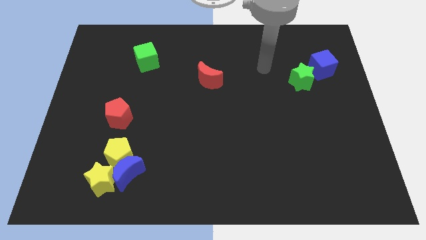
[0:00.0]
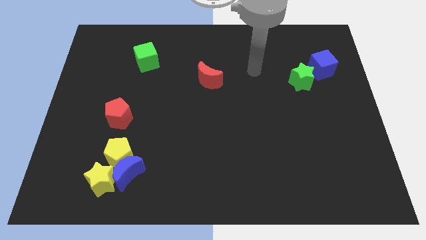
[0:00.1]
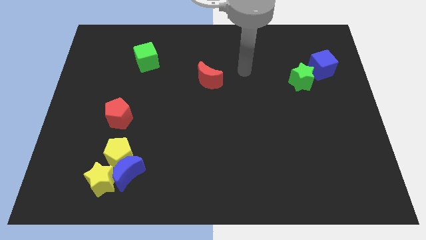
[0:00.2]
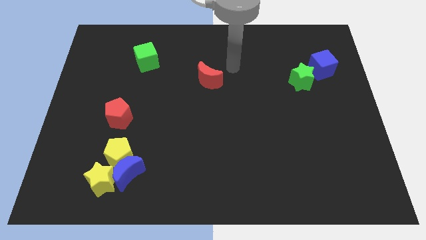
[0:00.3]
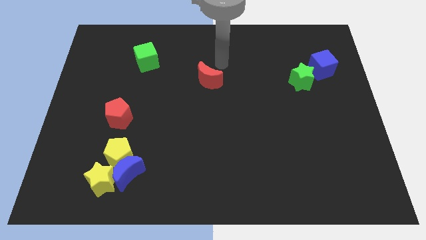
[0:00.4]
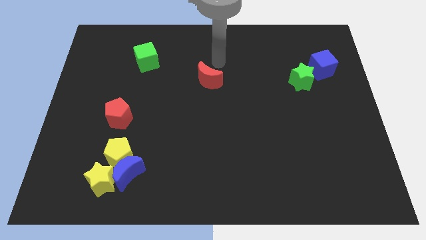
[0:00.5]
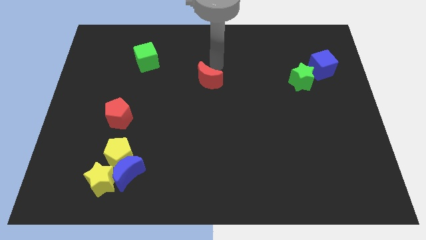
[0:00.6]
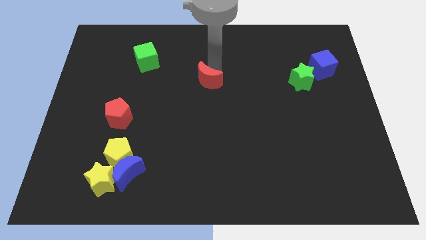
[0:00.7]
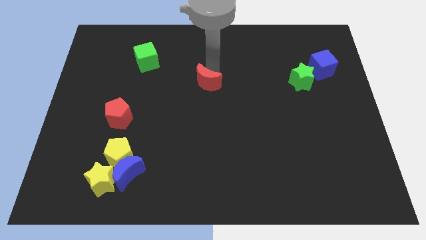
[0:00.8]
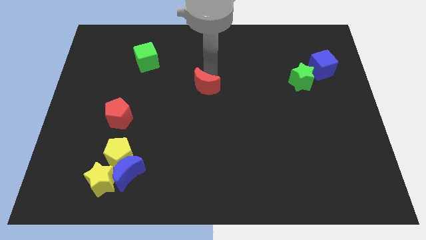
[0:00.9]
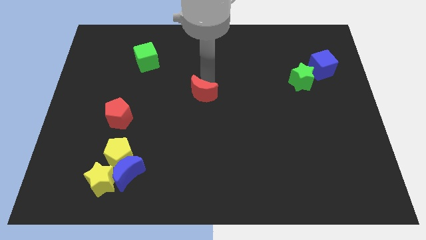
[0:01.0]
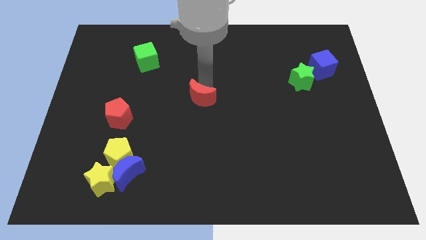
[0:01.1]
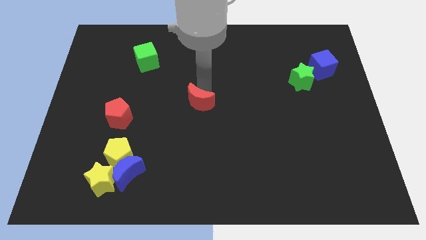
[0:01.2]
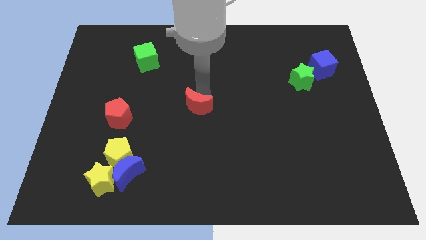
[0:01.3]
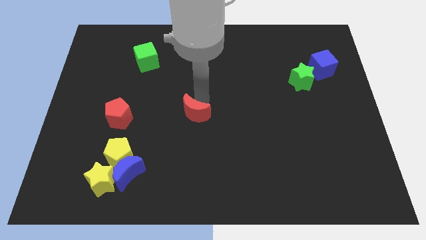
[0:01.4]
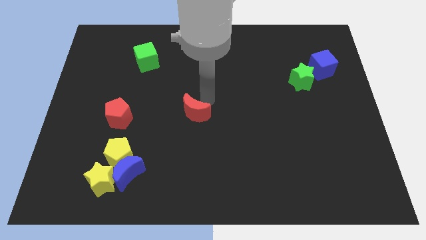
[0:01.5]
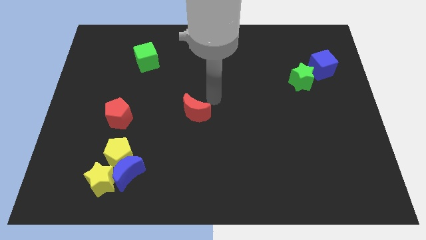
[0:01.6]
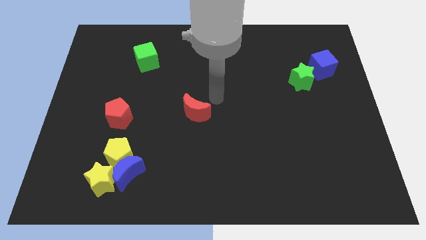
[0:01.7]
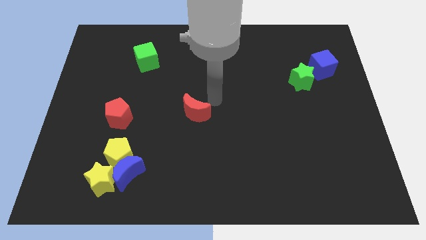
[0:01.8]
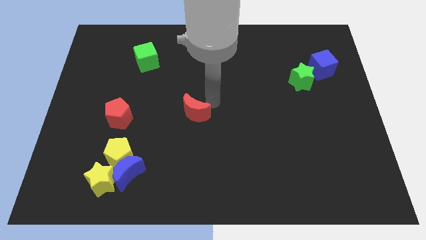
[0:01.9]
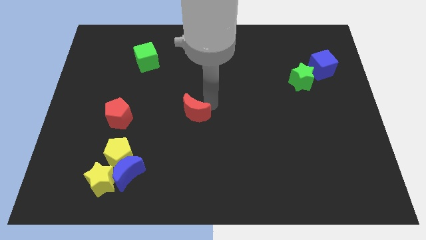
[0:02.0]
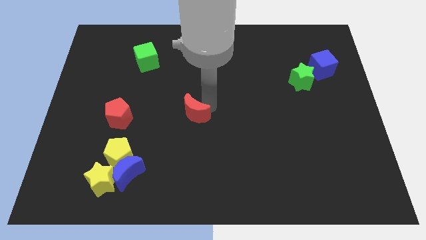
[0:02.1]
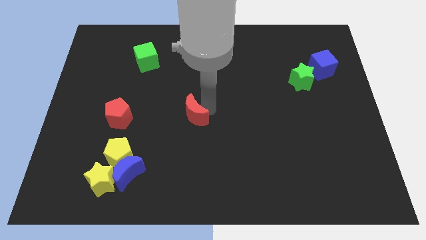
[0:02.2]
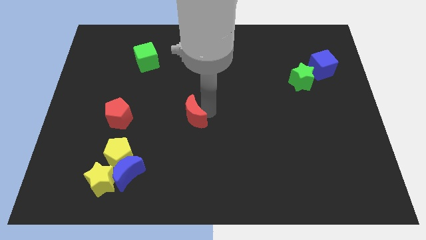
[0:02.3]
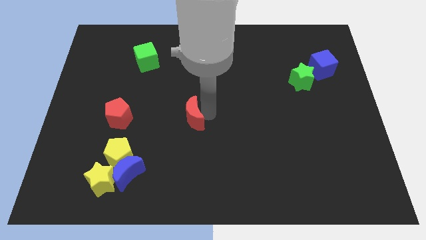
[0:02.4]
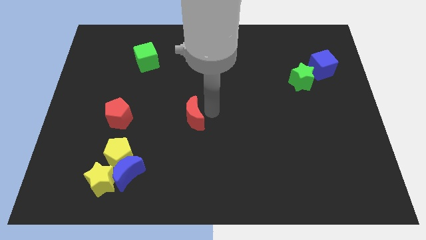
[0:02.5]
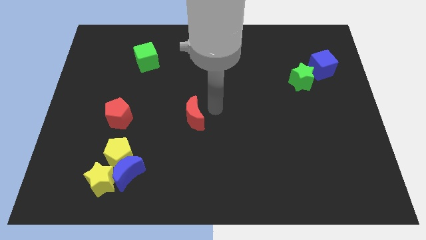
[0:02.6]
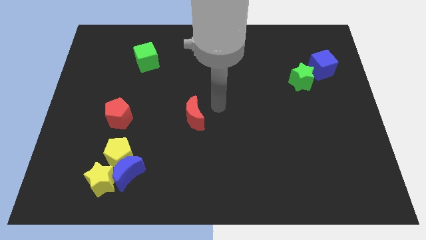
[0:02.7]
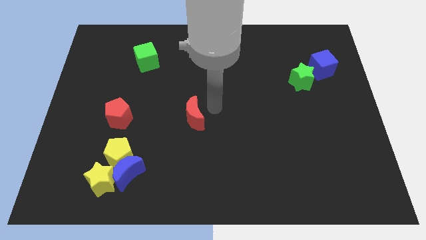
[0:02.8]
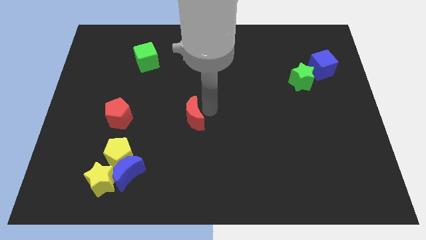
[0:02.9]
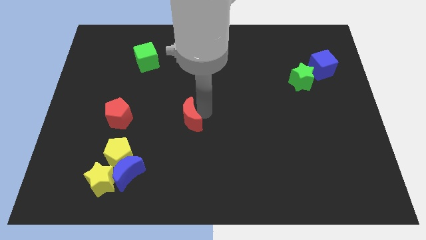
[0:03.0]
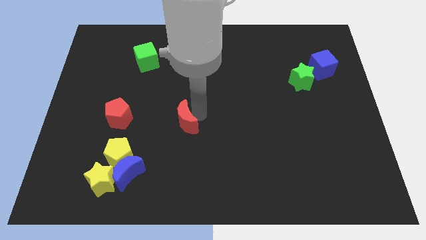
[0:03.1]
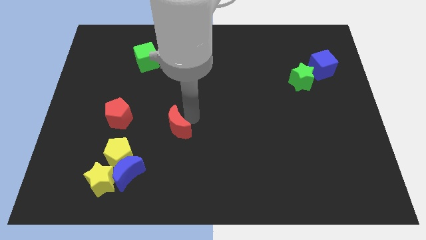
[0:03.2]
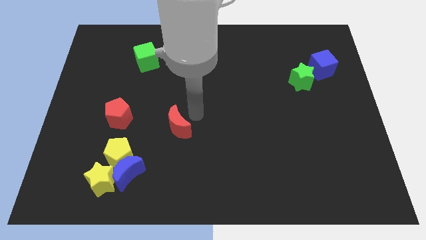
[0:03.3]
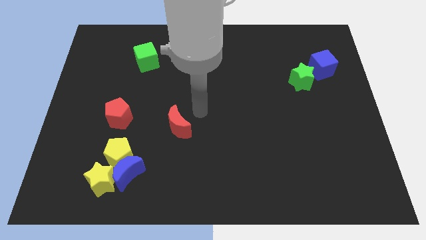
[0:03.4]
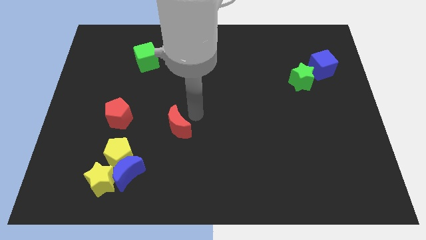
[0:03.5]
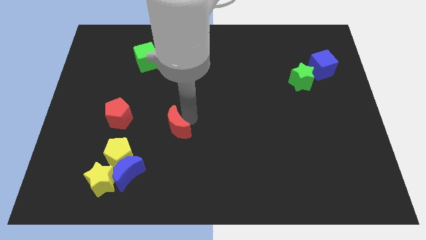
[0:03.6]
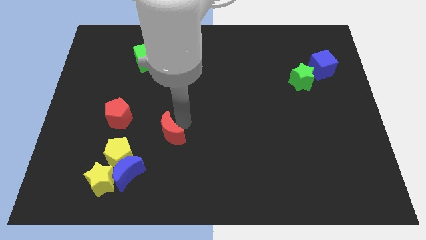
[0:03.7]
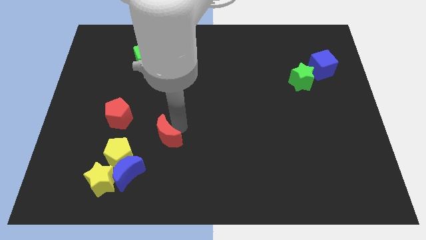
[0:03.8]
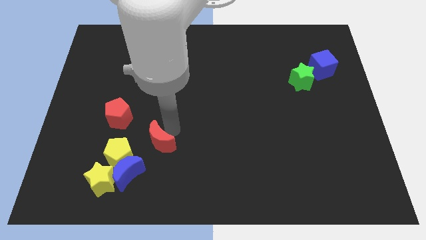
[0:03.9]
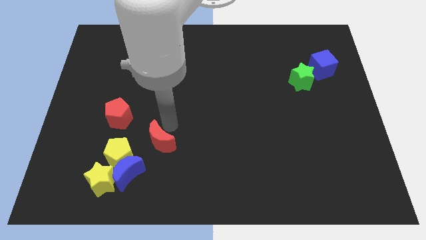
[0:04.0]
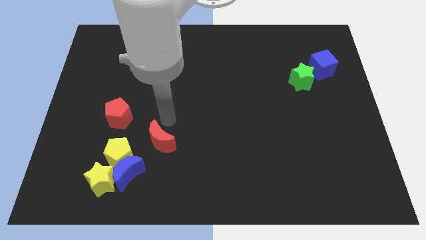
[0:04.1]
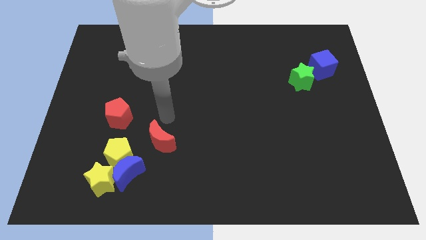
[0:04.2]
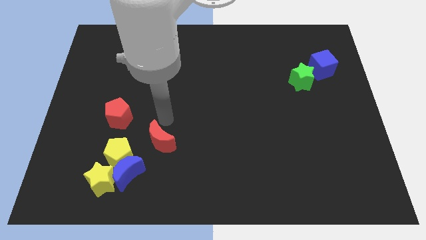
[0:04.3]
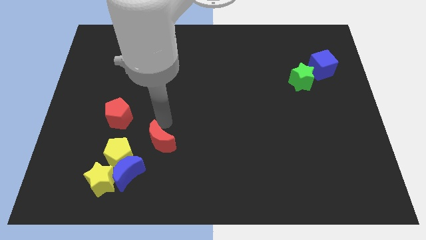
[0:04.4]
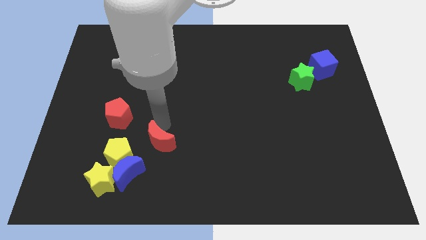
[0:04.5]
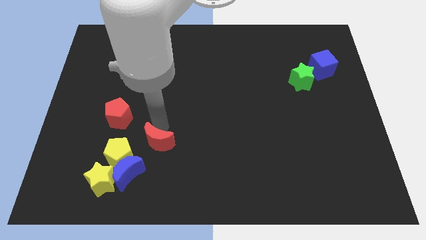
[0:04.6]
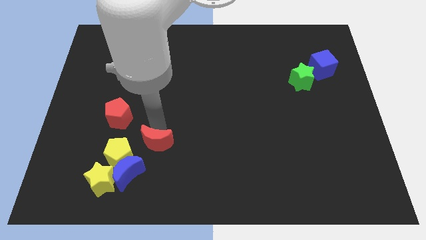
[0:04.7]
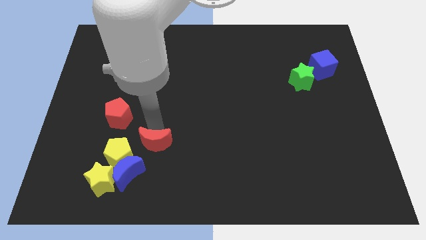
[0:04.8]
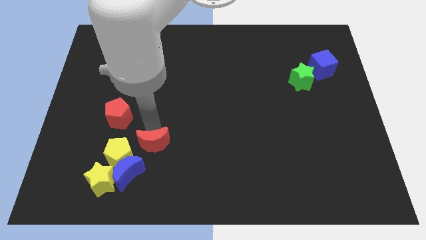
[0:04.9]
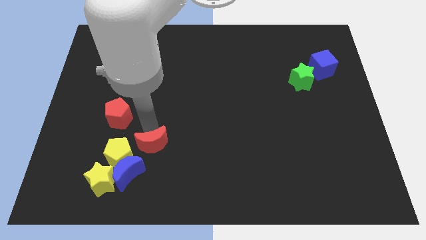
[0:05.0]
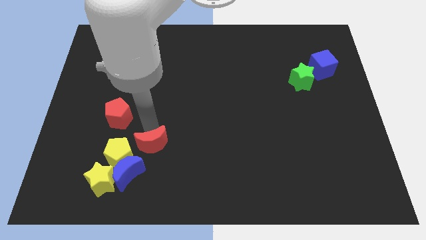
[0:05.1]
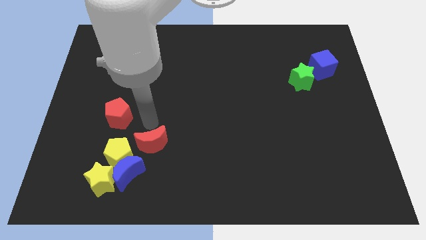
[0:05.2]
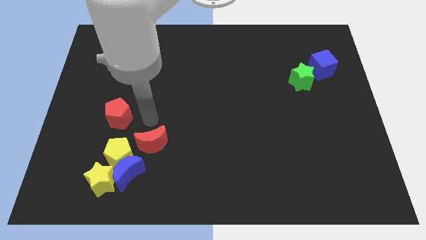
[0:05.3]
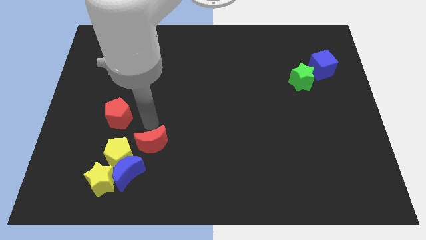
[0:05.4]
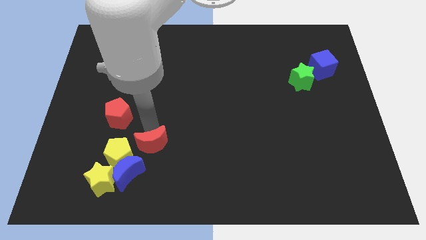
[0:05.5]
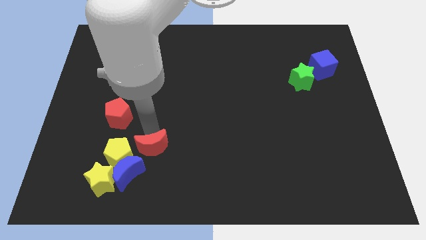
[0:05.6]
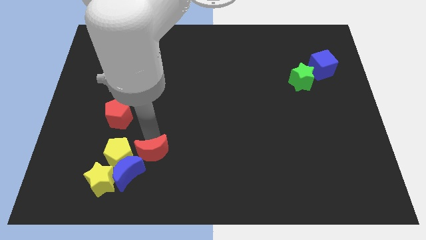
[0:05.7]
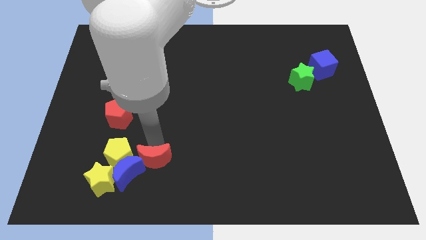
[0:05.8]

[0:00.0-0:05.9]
put the red moon close to the blue moon

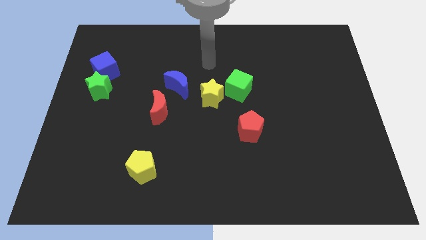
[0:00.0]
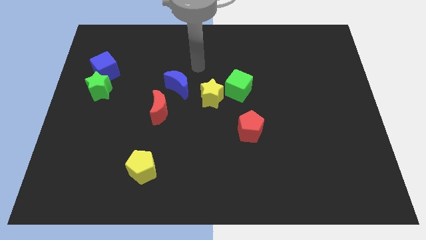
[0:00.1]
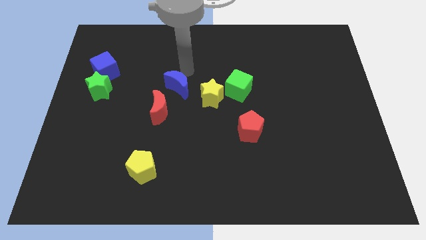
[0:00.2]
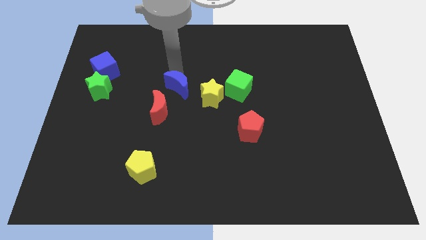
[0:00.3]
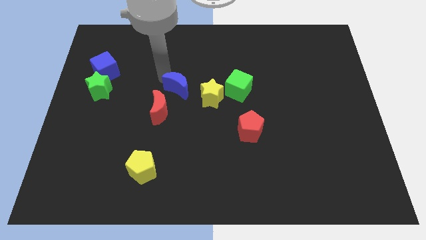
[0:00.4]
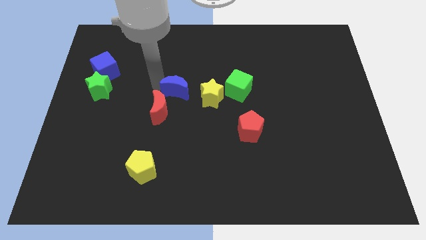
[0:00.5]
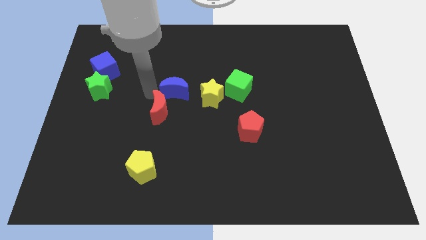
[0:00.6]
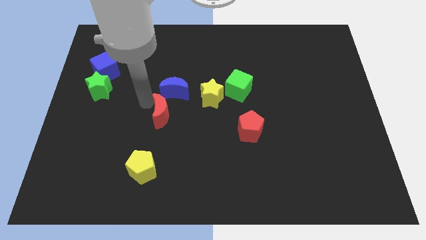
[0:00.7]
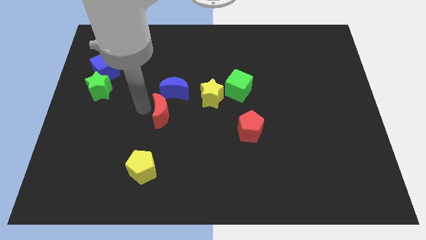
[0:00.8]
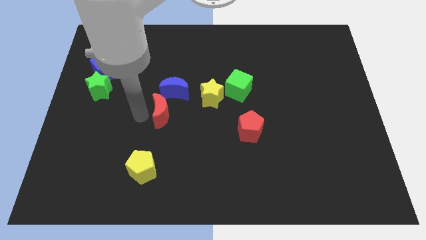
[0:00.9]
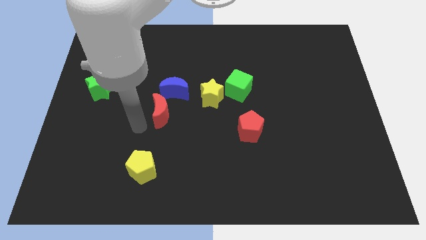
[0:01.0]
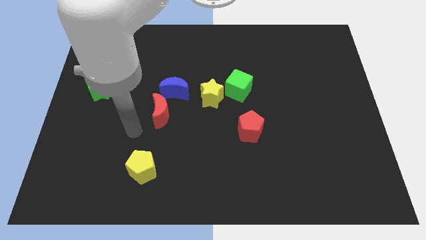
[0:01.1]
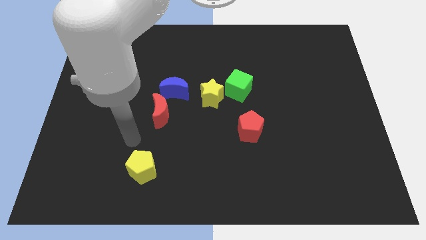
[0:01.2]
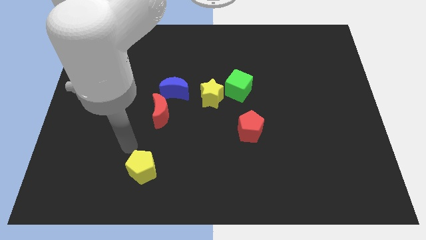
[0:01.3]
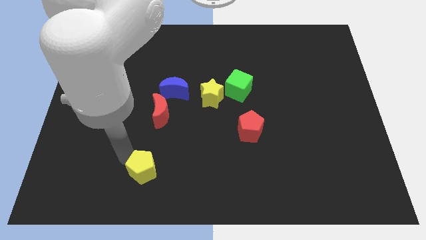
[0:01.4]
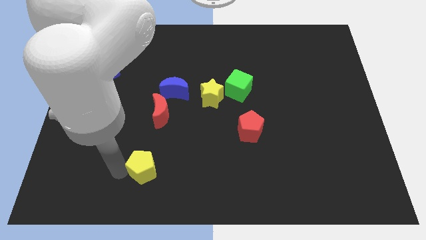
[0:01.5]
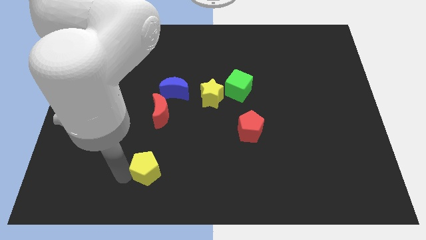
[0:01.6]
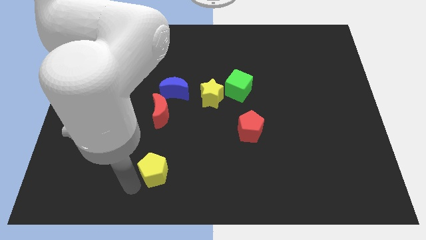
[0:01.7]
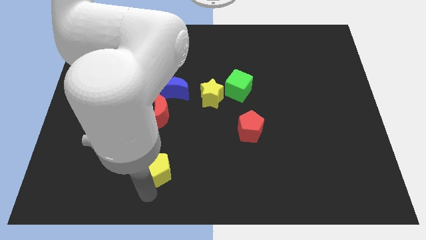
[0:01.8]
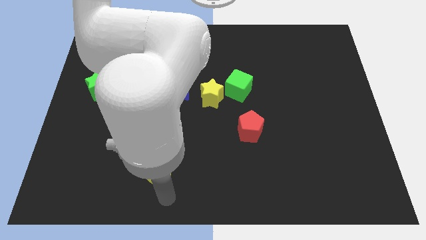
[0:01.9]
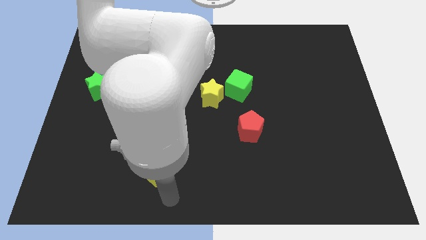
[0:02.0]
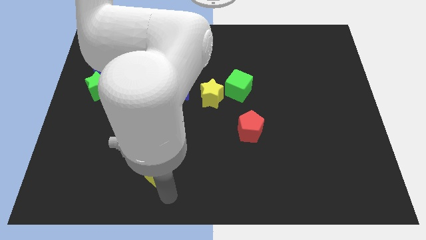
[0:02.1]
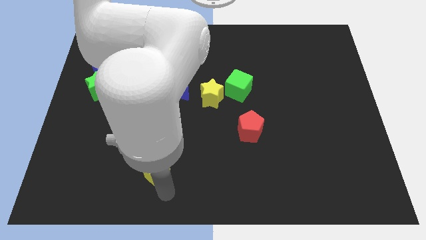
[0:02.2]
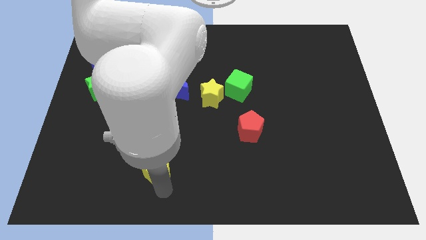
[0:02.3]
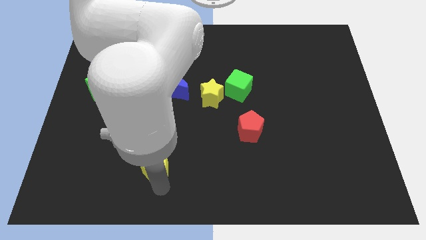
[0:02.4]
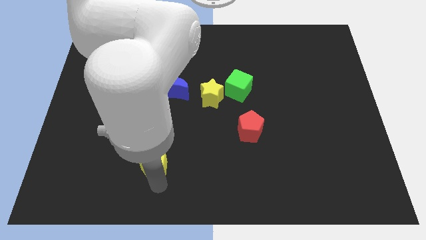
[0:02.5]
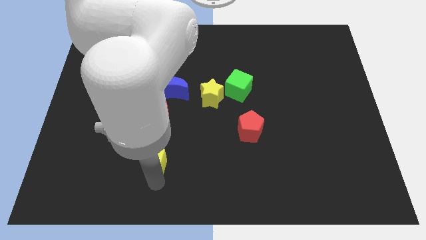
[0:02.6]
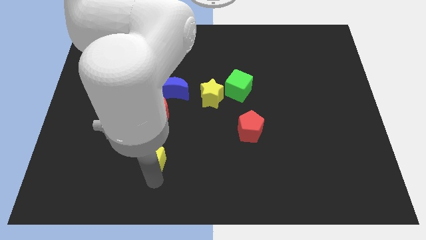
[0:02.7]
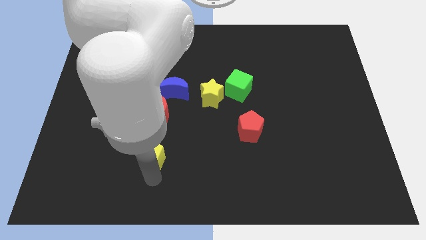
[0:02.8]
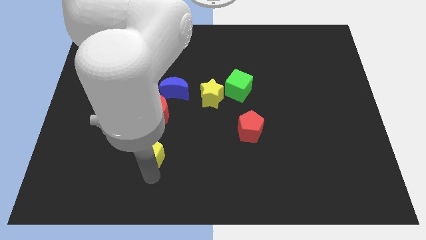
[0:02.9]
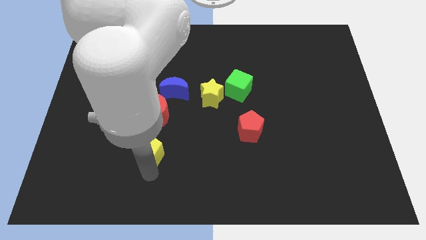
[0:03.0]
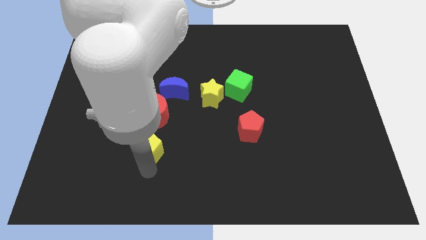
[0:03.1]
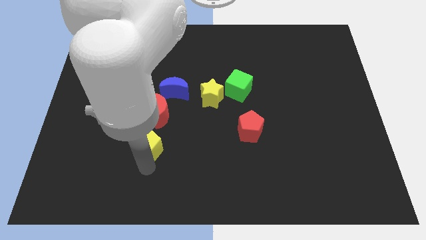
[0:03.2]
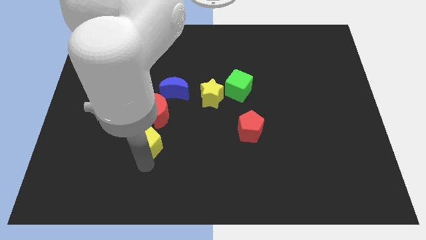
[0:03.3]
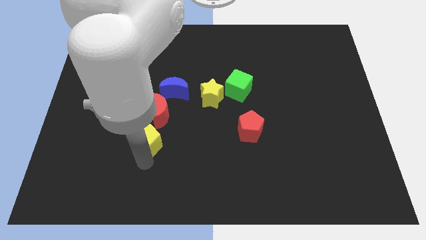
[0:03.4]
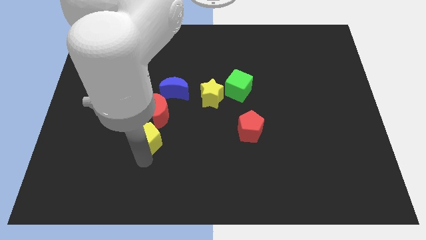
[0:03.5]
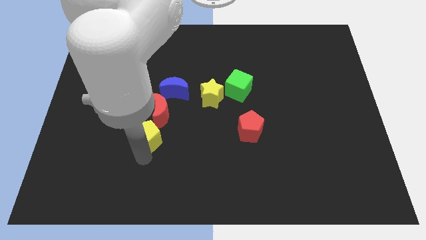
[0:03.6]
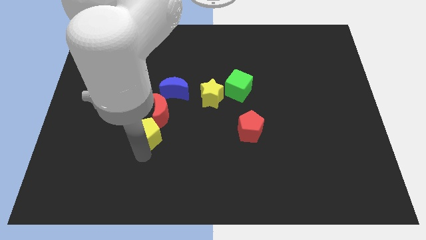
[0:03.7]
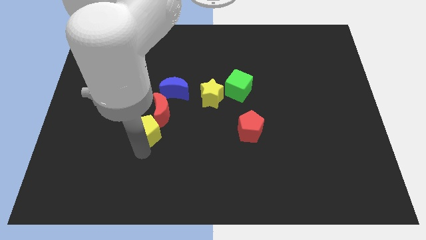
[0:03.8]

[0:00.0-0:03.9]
put the yellow pentagon towards the red moon
